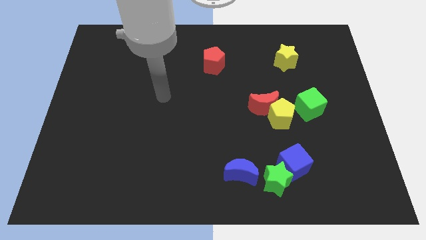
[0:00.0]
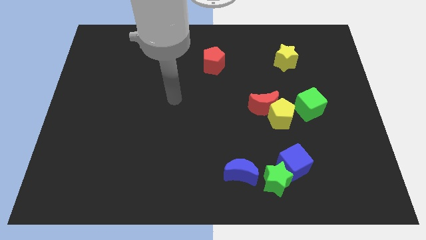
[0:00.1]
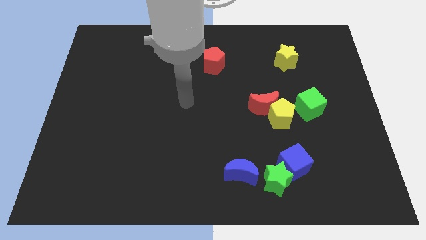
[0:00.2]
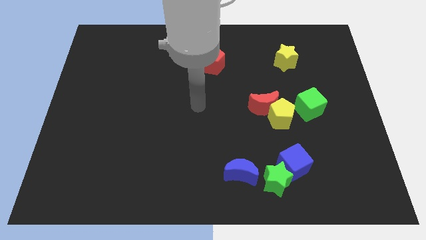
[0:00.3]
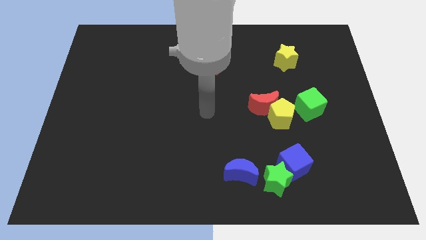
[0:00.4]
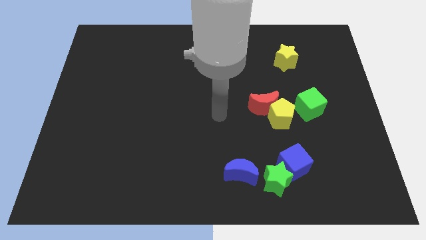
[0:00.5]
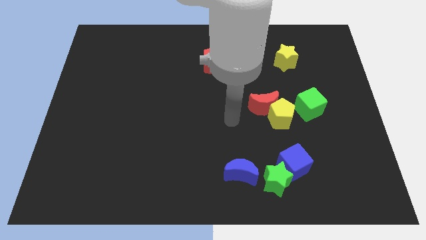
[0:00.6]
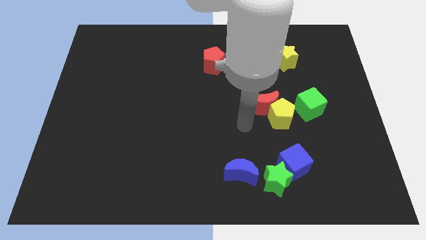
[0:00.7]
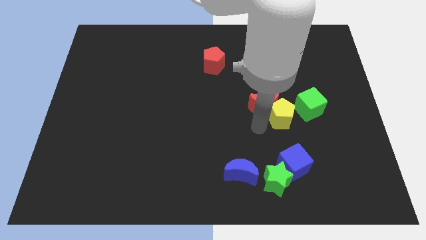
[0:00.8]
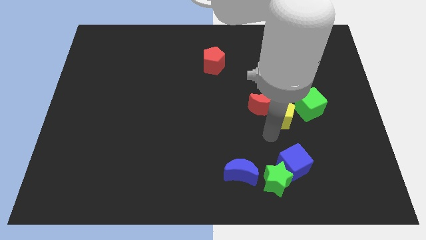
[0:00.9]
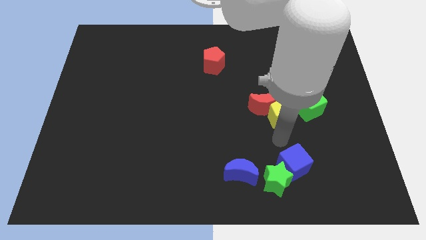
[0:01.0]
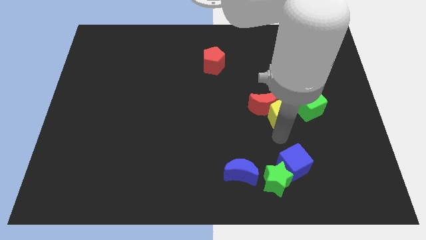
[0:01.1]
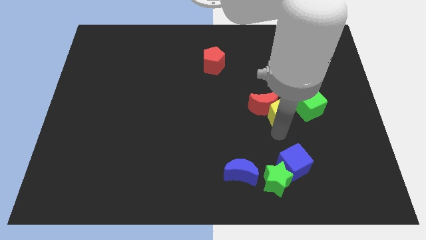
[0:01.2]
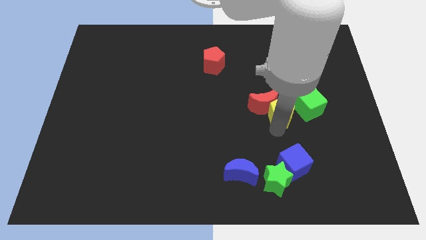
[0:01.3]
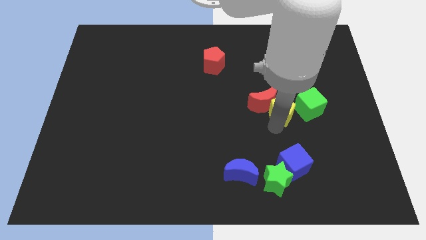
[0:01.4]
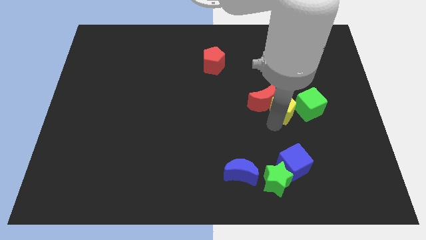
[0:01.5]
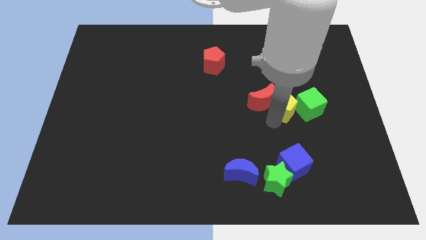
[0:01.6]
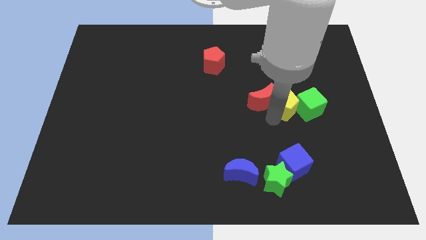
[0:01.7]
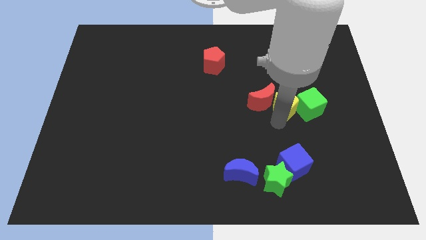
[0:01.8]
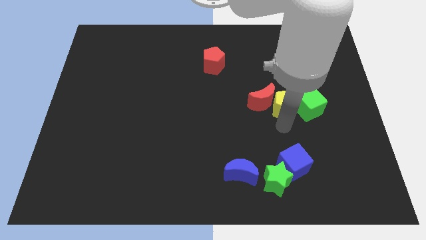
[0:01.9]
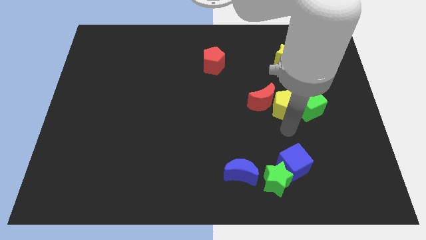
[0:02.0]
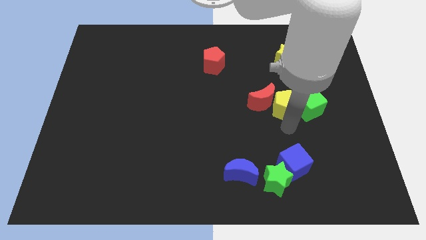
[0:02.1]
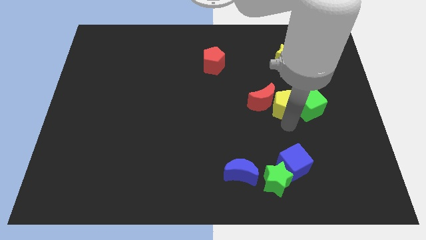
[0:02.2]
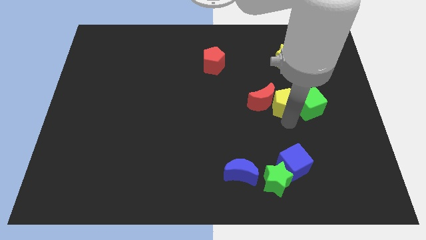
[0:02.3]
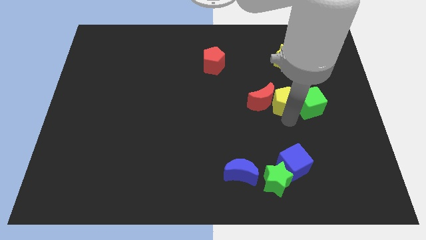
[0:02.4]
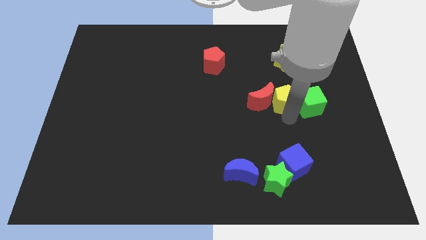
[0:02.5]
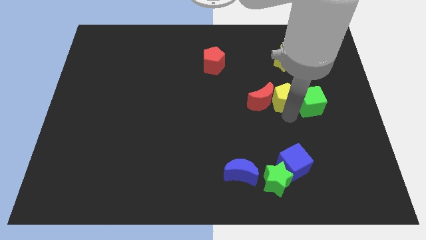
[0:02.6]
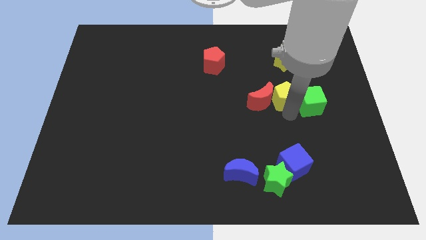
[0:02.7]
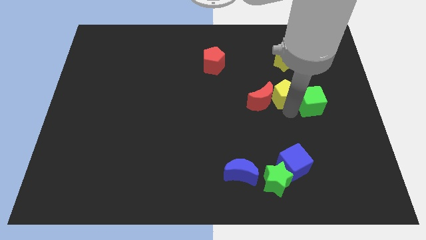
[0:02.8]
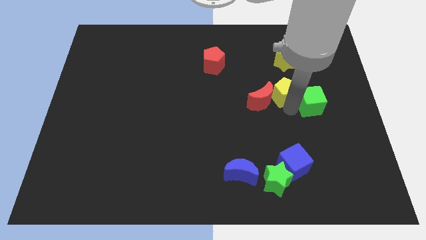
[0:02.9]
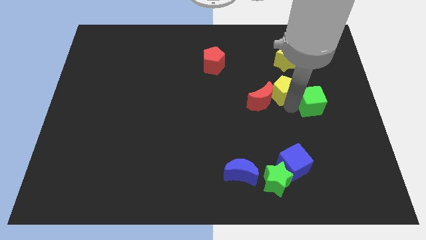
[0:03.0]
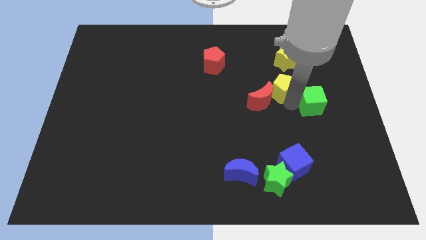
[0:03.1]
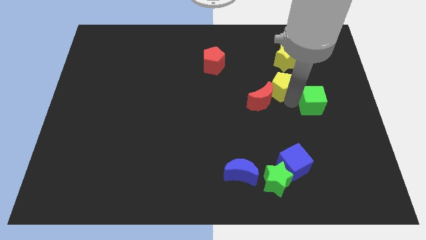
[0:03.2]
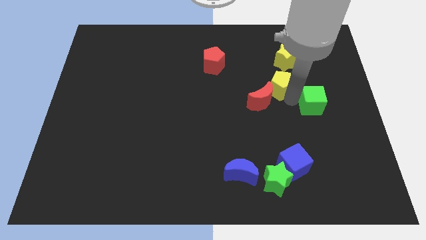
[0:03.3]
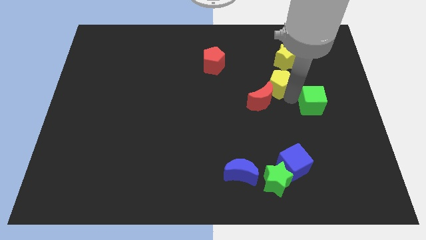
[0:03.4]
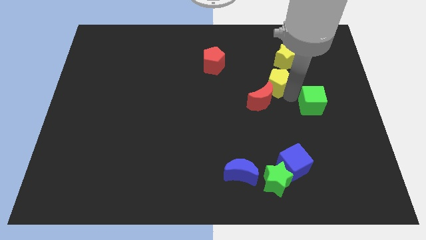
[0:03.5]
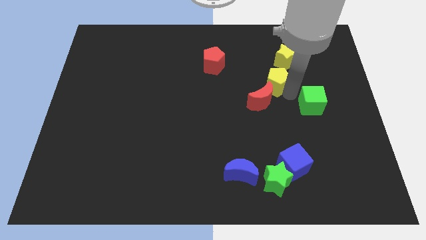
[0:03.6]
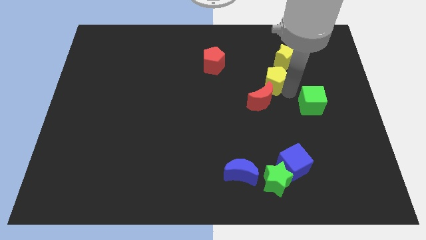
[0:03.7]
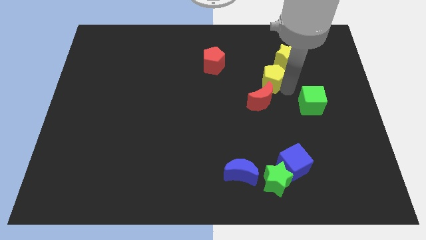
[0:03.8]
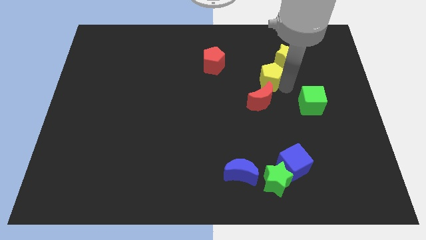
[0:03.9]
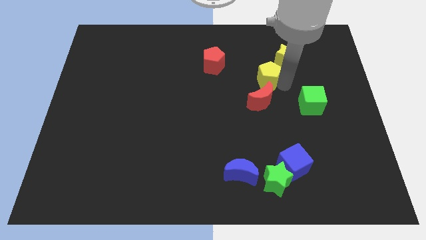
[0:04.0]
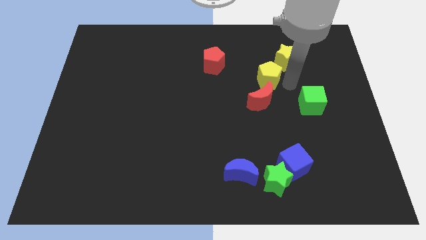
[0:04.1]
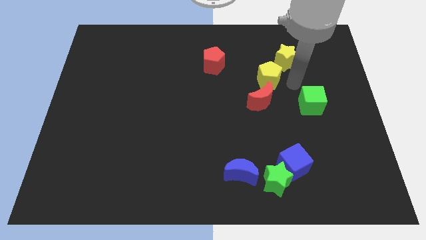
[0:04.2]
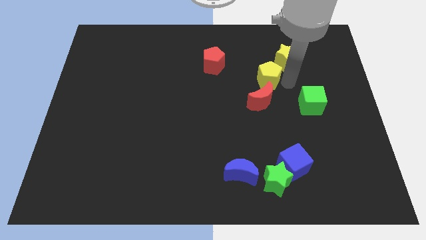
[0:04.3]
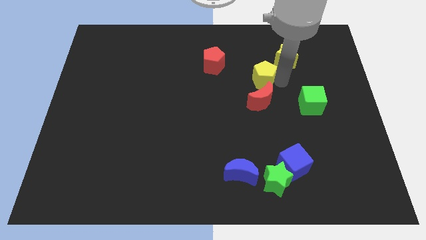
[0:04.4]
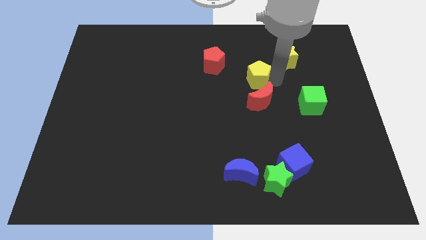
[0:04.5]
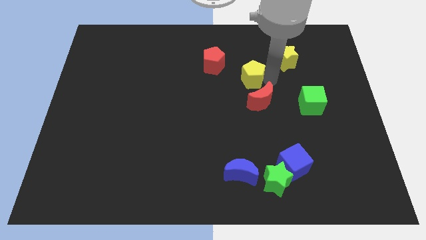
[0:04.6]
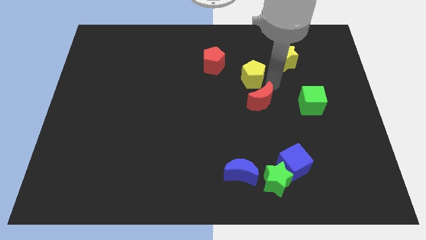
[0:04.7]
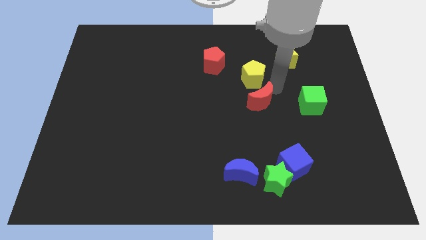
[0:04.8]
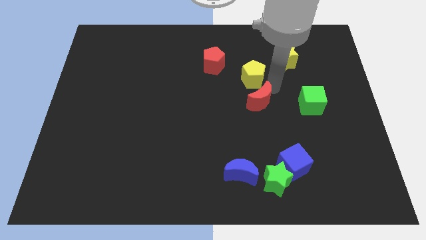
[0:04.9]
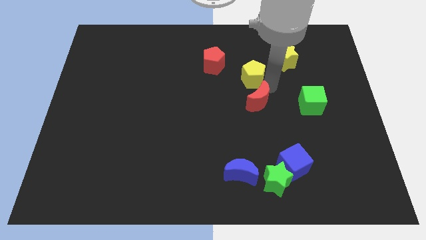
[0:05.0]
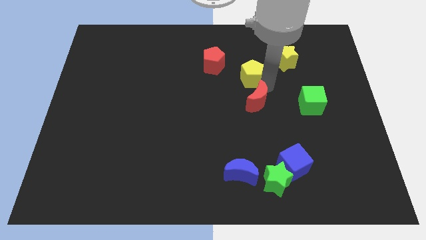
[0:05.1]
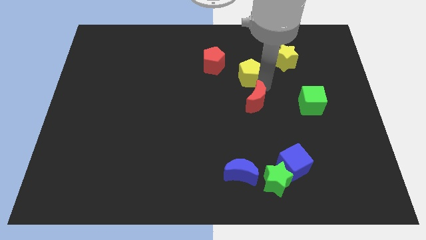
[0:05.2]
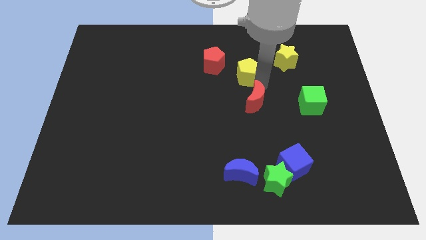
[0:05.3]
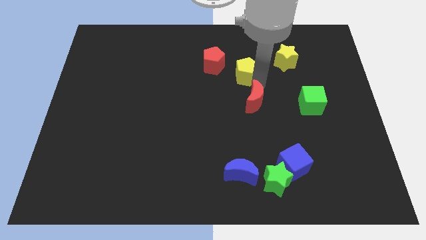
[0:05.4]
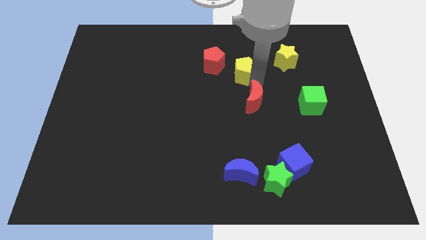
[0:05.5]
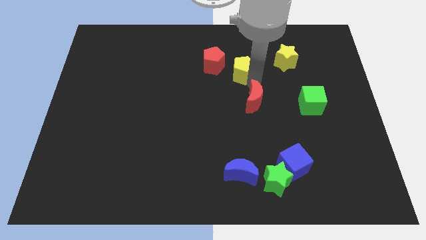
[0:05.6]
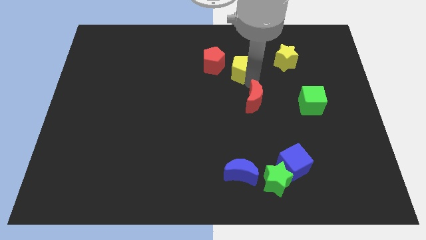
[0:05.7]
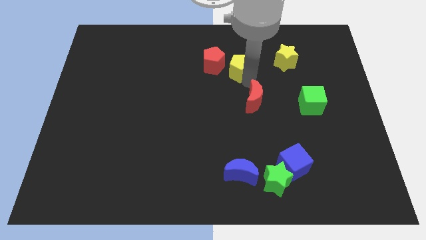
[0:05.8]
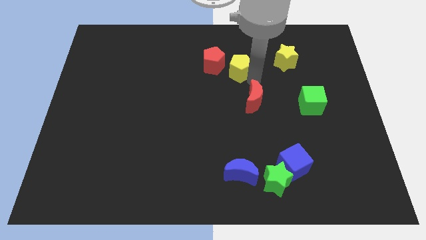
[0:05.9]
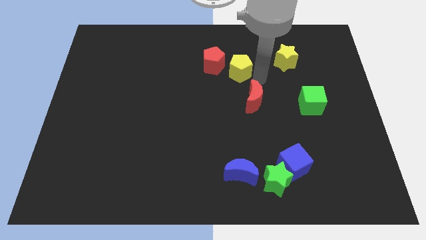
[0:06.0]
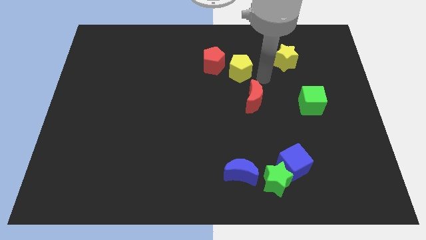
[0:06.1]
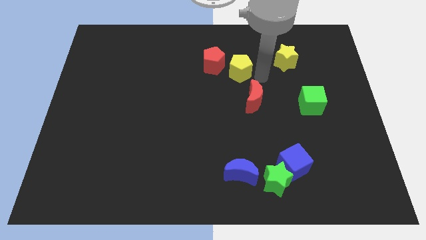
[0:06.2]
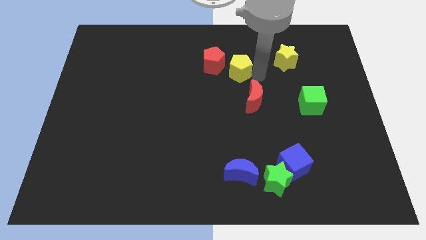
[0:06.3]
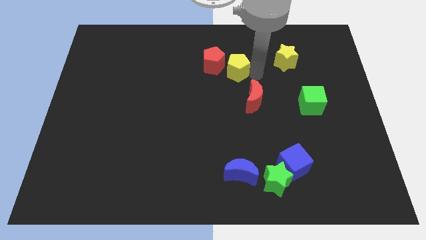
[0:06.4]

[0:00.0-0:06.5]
slide the yellow pentagon next to the red pentagon

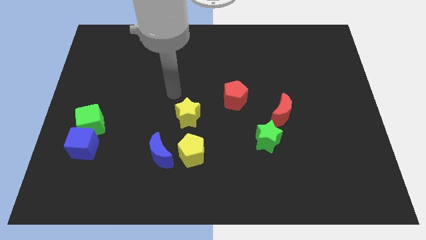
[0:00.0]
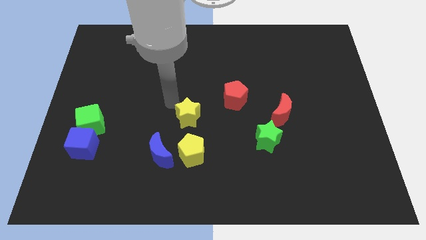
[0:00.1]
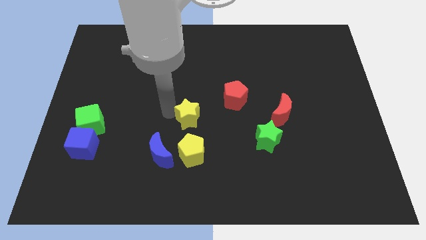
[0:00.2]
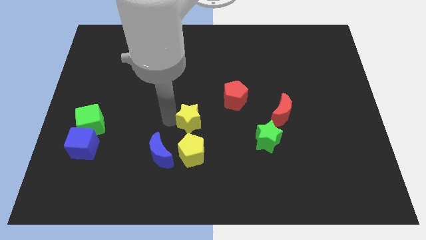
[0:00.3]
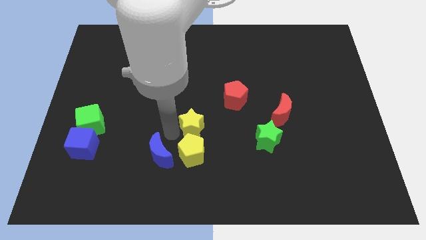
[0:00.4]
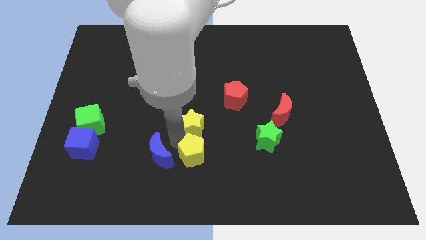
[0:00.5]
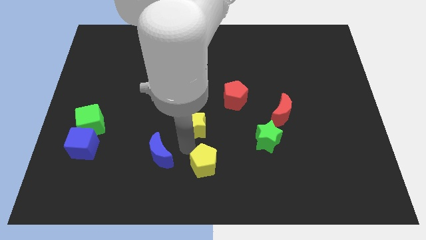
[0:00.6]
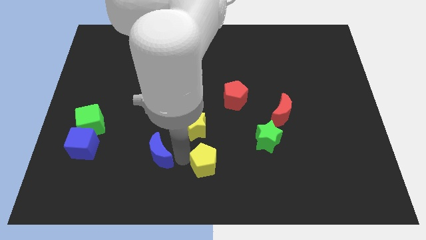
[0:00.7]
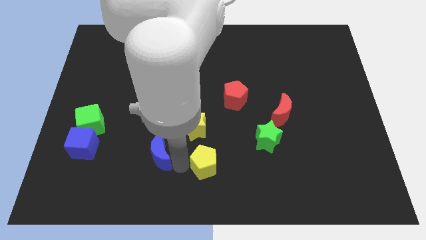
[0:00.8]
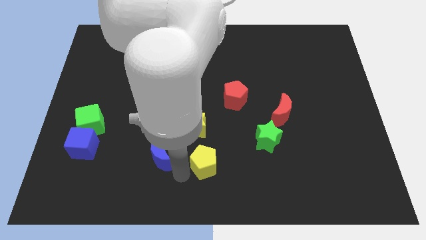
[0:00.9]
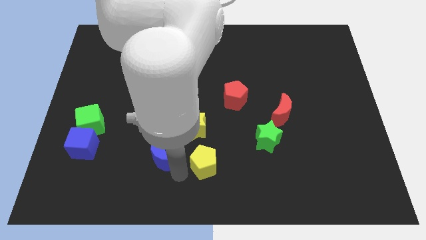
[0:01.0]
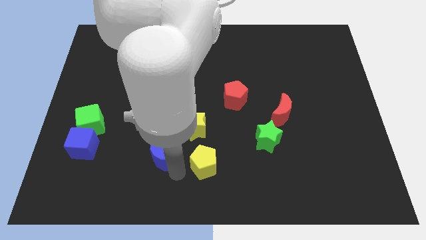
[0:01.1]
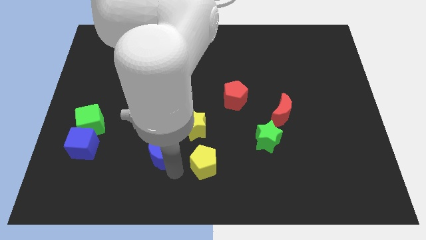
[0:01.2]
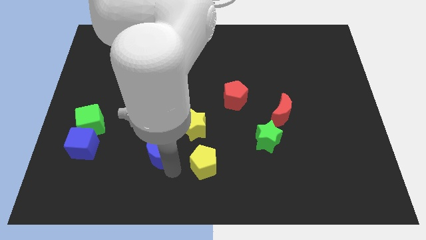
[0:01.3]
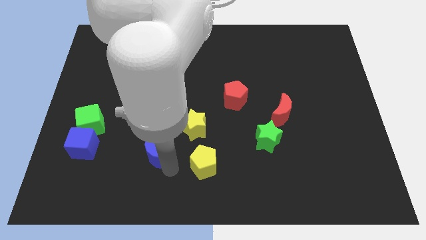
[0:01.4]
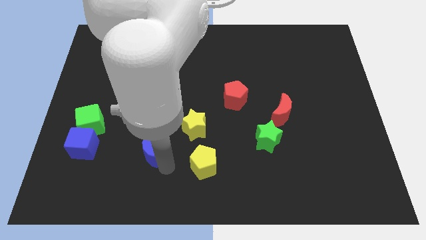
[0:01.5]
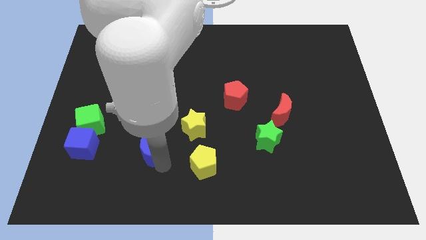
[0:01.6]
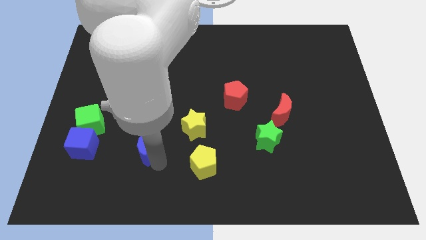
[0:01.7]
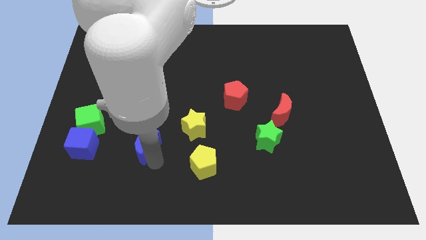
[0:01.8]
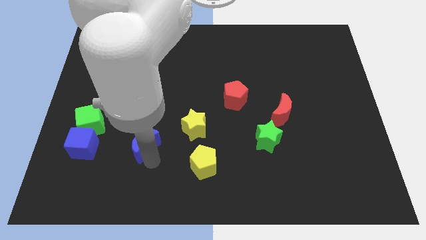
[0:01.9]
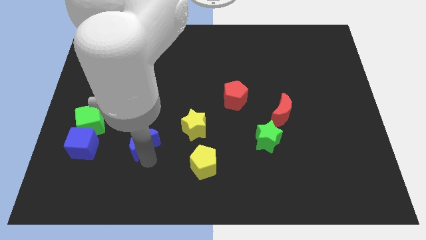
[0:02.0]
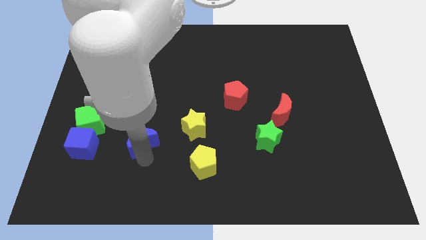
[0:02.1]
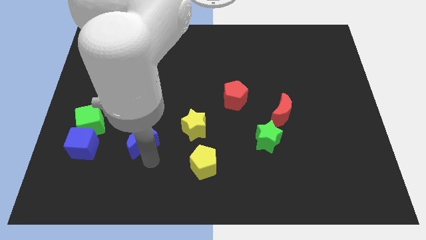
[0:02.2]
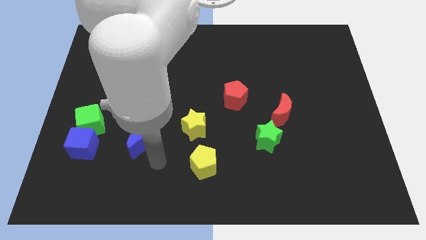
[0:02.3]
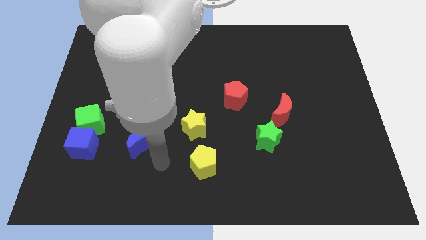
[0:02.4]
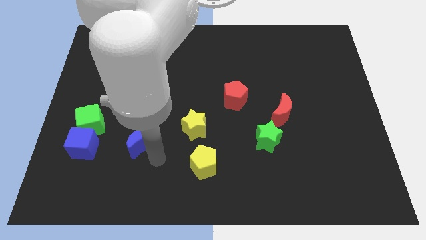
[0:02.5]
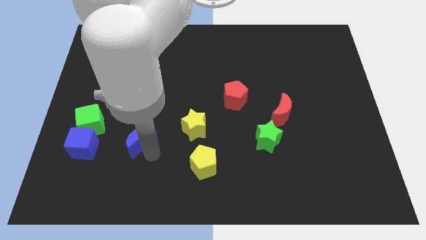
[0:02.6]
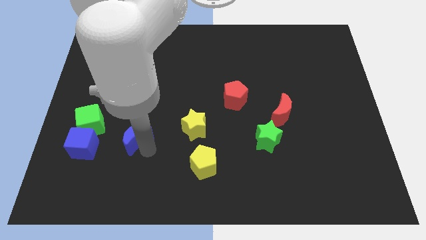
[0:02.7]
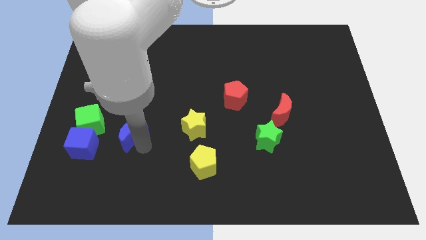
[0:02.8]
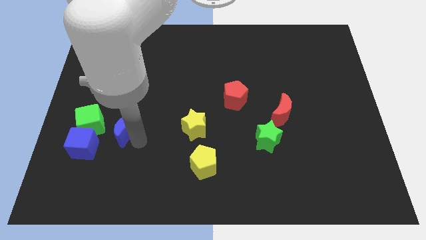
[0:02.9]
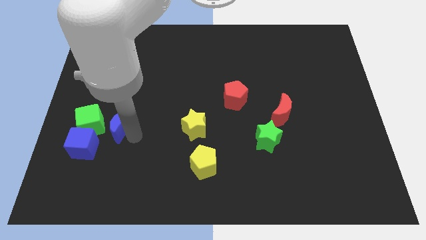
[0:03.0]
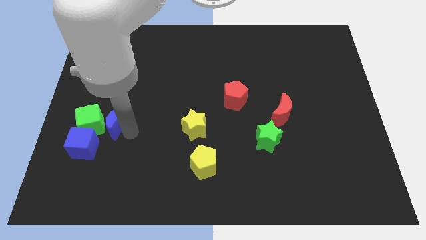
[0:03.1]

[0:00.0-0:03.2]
put the blue moon to the green cube
